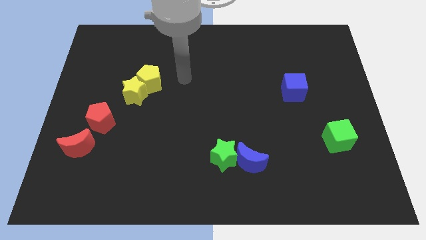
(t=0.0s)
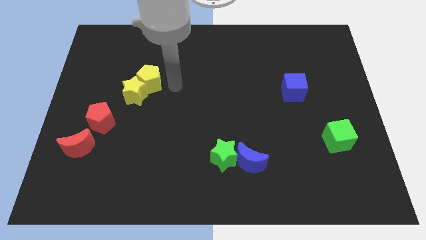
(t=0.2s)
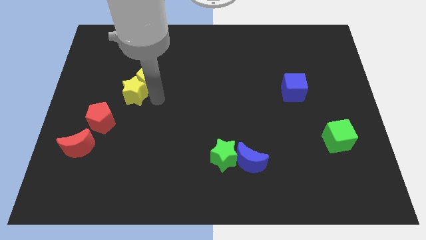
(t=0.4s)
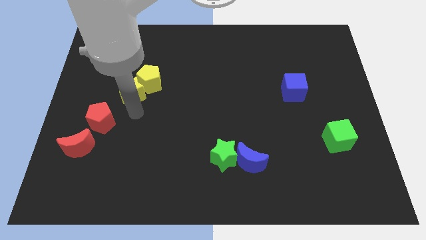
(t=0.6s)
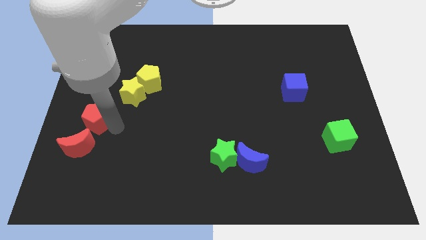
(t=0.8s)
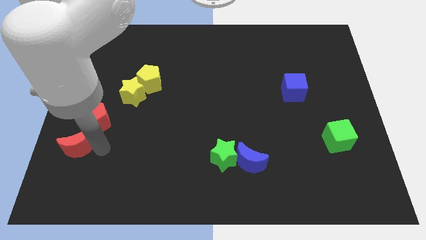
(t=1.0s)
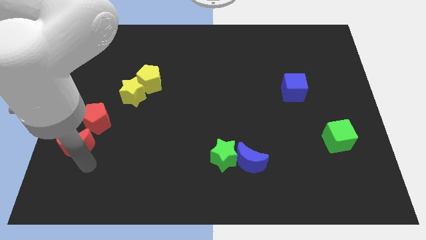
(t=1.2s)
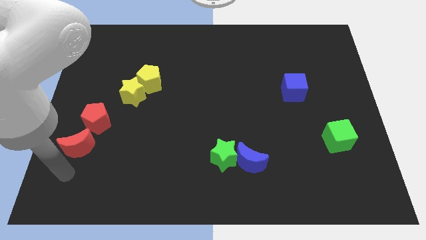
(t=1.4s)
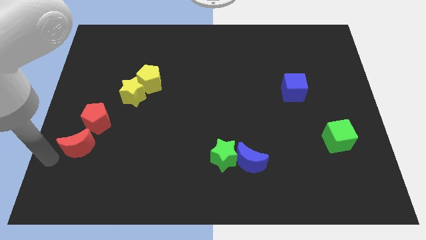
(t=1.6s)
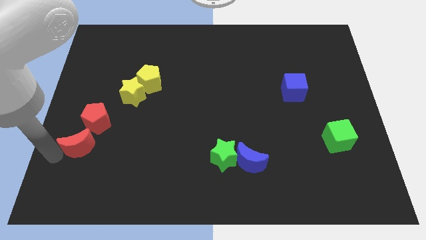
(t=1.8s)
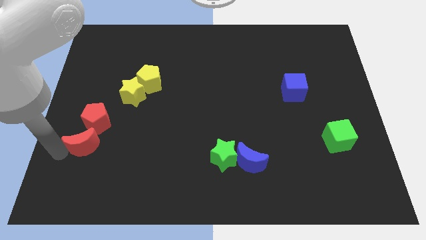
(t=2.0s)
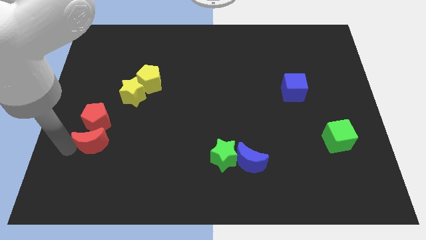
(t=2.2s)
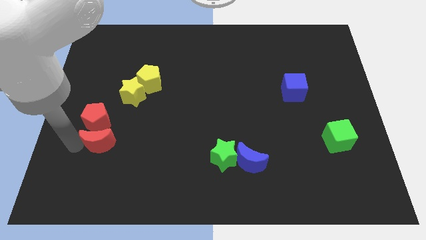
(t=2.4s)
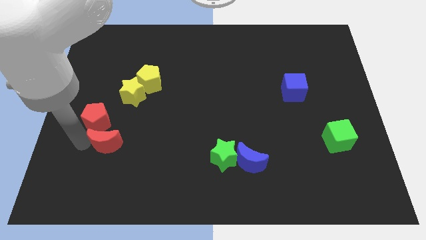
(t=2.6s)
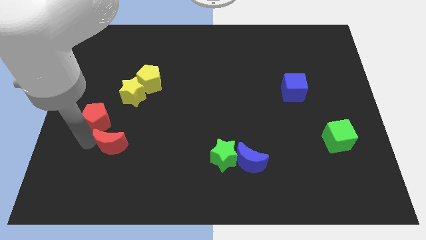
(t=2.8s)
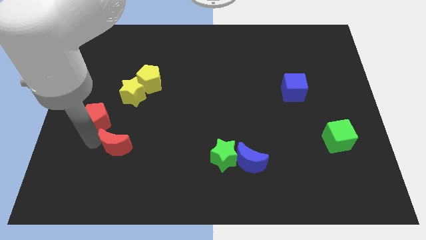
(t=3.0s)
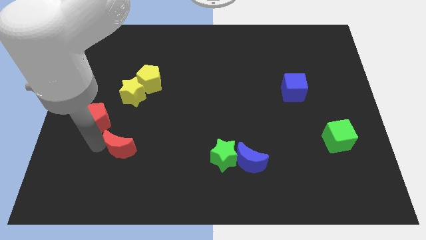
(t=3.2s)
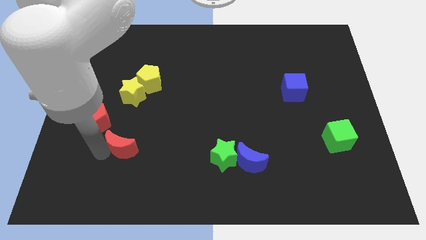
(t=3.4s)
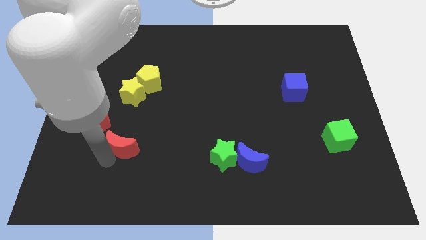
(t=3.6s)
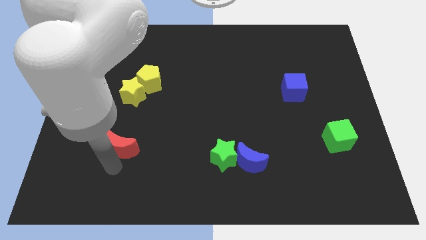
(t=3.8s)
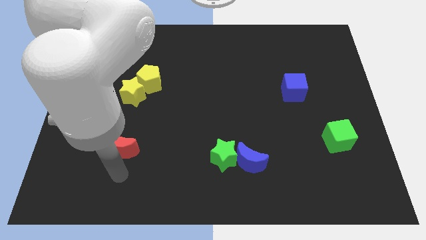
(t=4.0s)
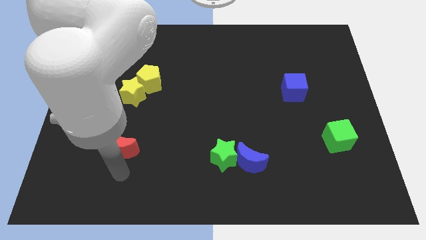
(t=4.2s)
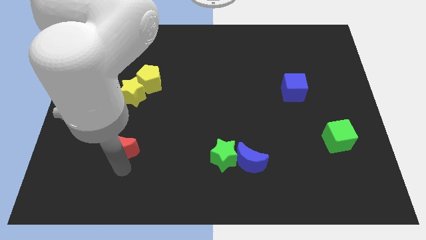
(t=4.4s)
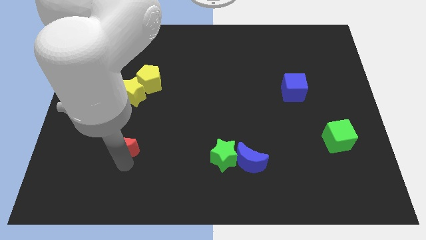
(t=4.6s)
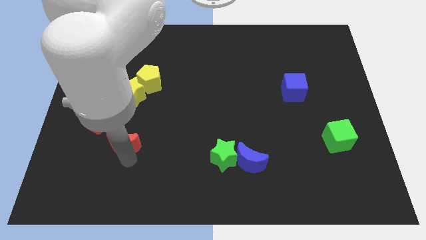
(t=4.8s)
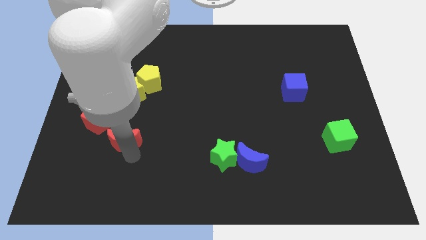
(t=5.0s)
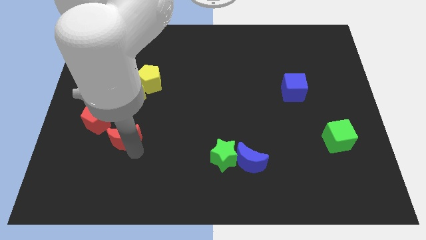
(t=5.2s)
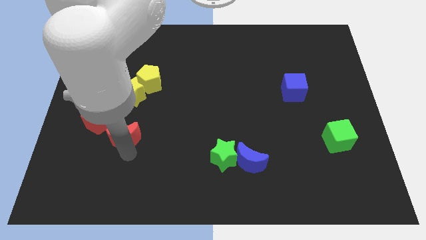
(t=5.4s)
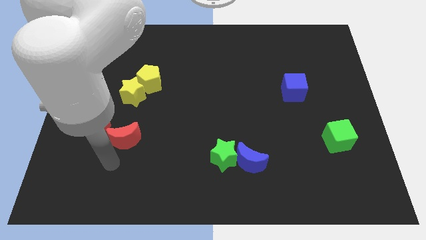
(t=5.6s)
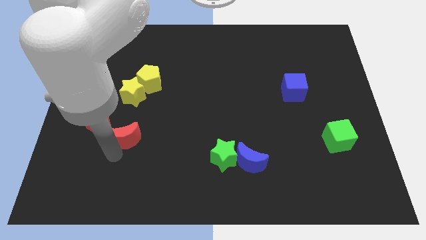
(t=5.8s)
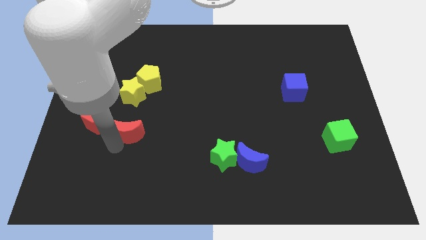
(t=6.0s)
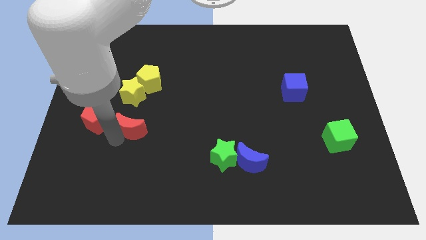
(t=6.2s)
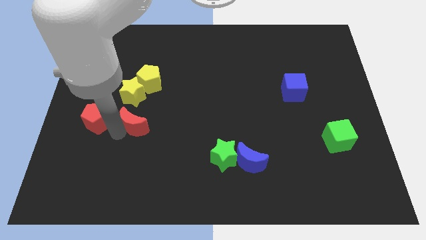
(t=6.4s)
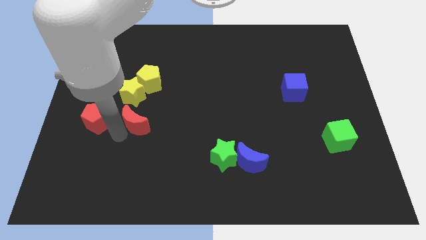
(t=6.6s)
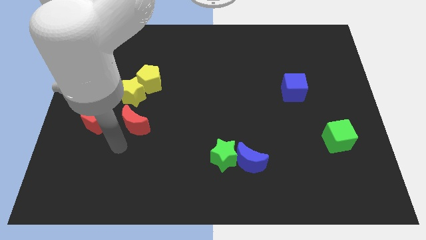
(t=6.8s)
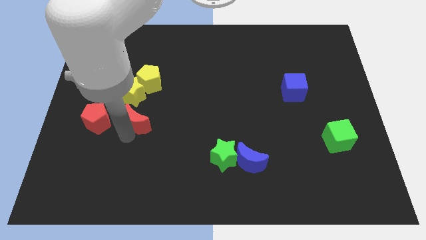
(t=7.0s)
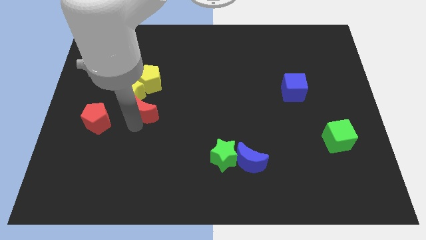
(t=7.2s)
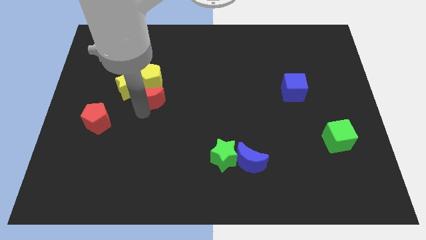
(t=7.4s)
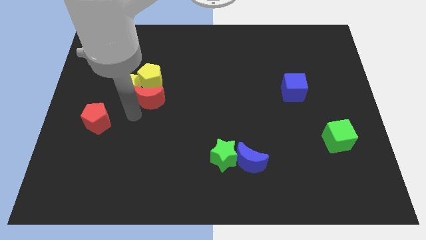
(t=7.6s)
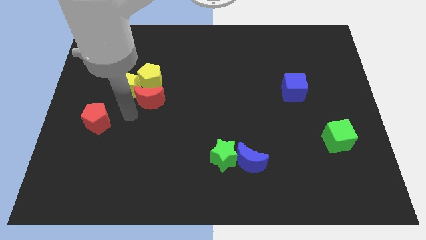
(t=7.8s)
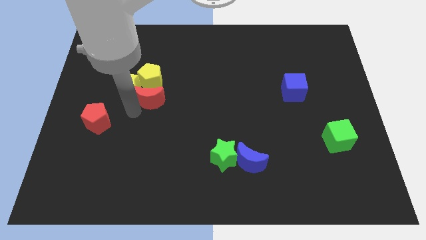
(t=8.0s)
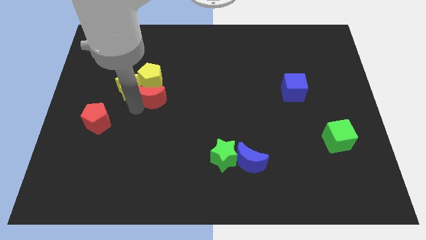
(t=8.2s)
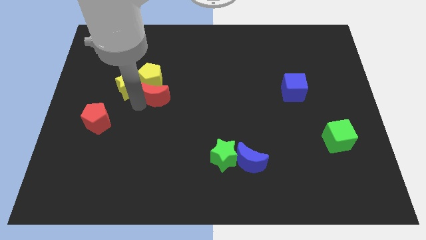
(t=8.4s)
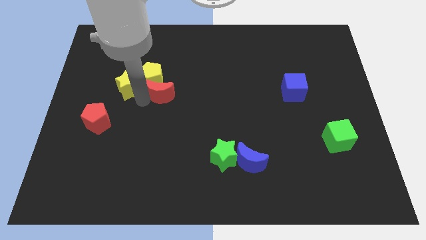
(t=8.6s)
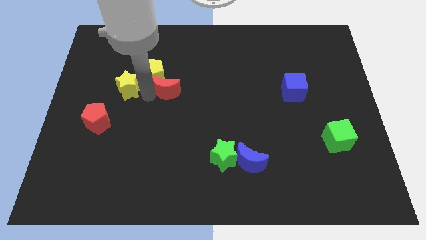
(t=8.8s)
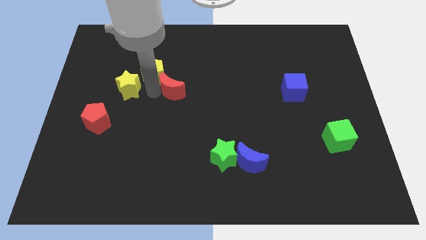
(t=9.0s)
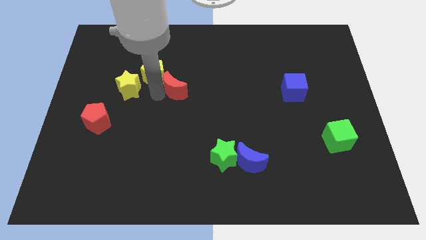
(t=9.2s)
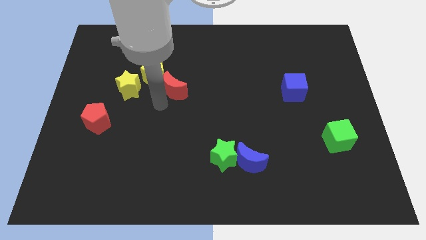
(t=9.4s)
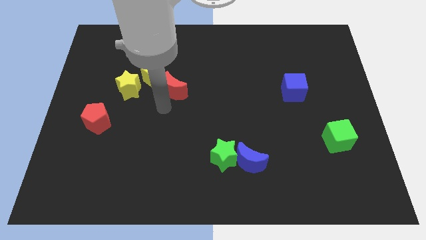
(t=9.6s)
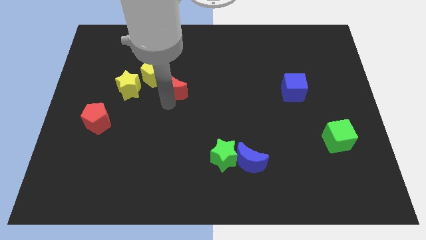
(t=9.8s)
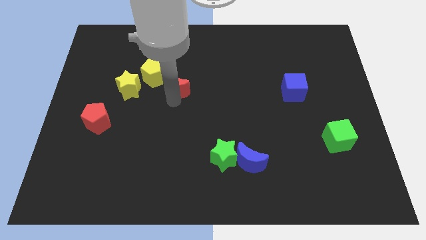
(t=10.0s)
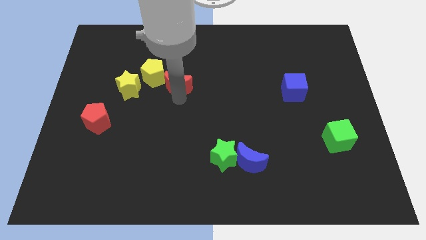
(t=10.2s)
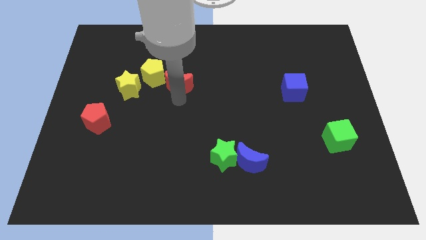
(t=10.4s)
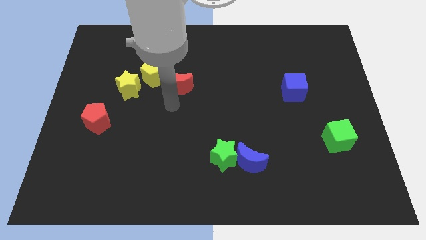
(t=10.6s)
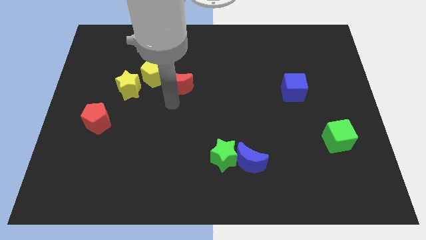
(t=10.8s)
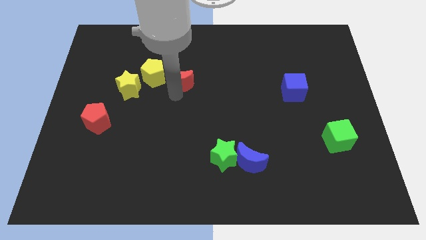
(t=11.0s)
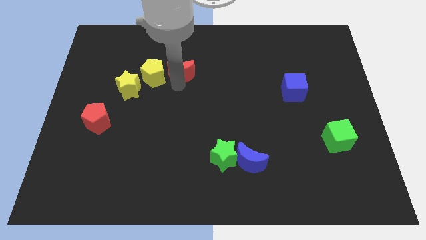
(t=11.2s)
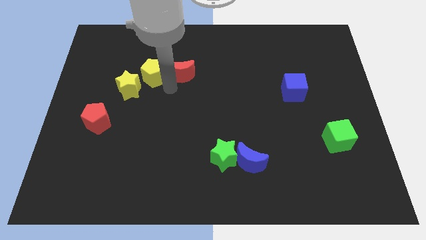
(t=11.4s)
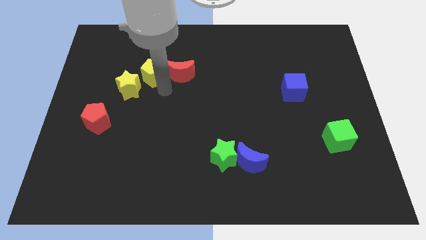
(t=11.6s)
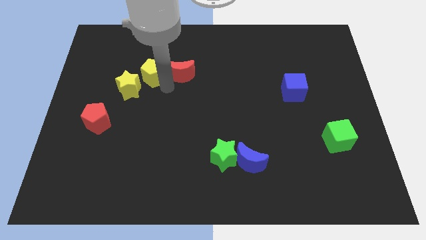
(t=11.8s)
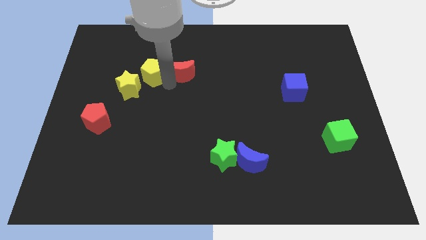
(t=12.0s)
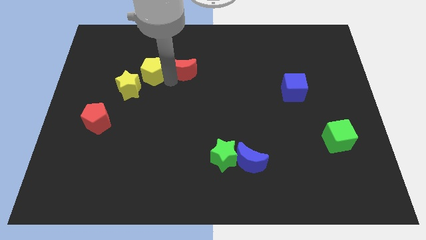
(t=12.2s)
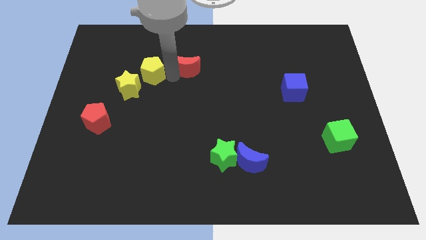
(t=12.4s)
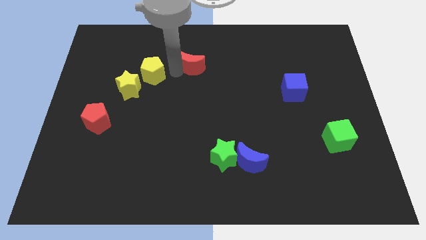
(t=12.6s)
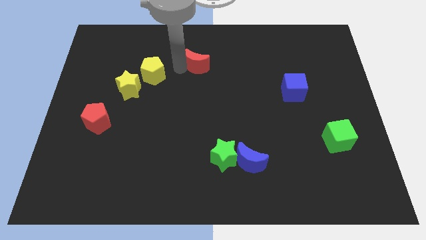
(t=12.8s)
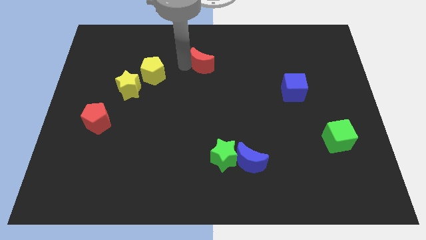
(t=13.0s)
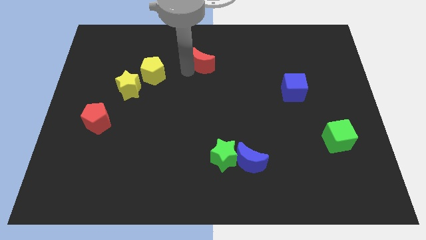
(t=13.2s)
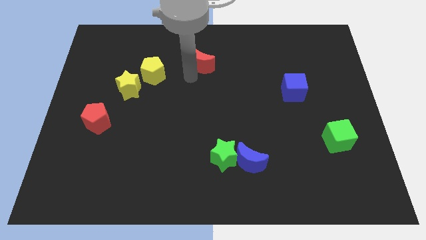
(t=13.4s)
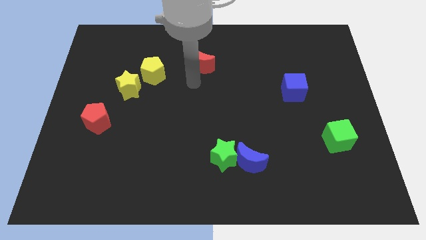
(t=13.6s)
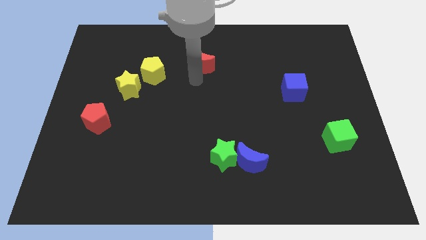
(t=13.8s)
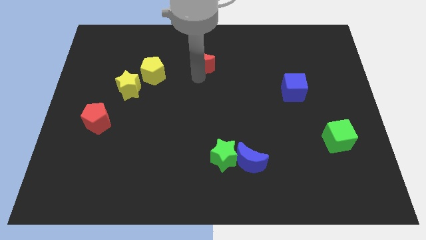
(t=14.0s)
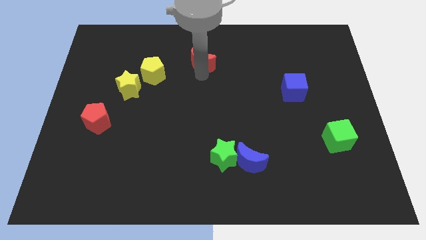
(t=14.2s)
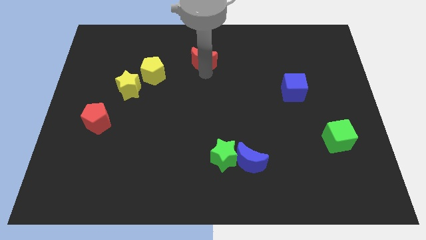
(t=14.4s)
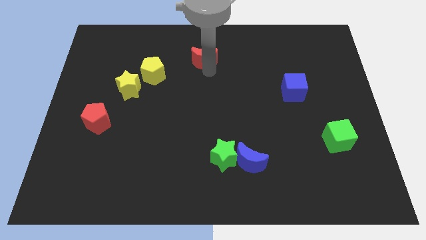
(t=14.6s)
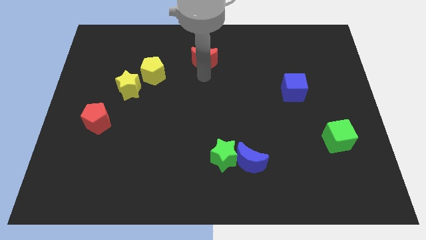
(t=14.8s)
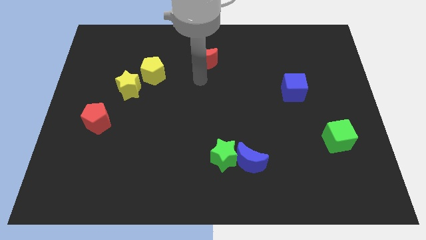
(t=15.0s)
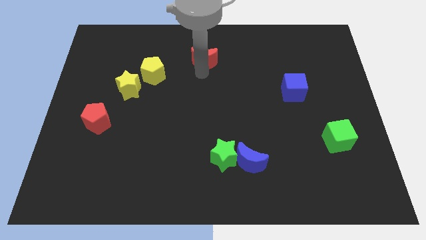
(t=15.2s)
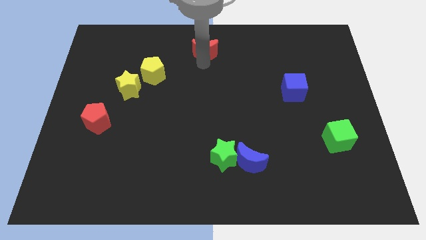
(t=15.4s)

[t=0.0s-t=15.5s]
move the red moon to the top
